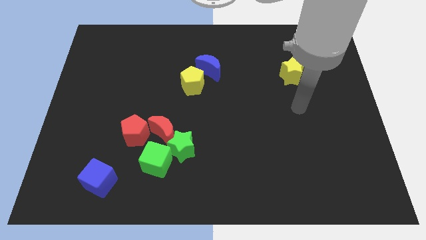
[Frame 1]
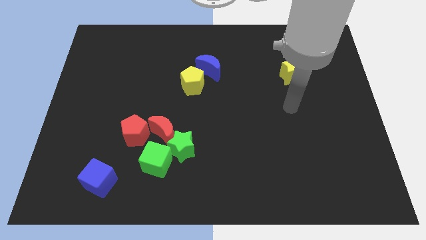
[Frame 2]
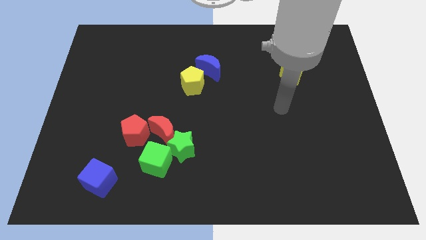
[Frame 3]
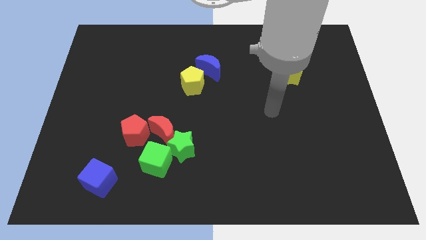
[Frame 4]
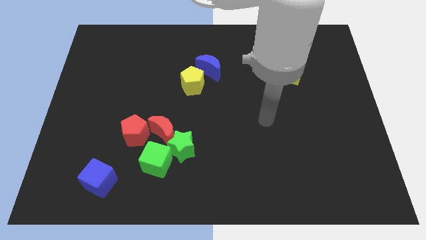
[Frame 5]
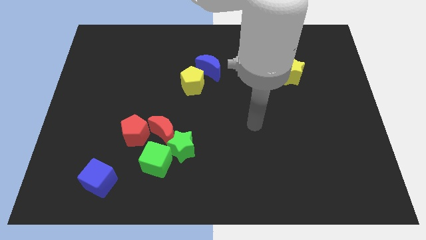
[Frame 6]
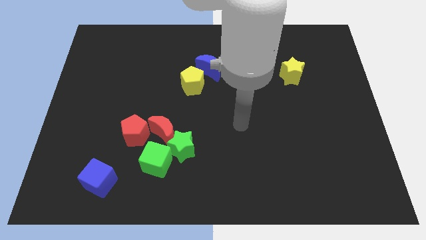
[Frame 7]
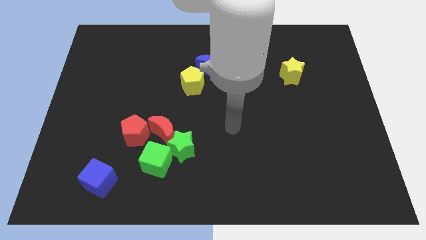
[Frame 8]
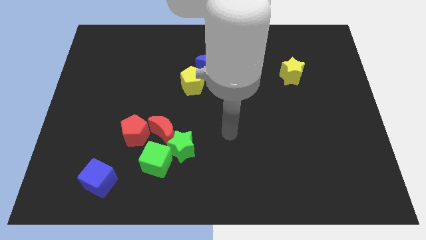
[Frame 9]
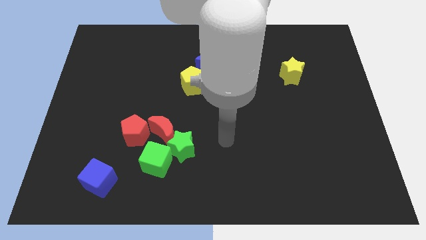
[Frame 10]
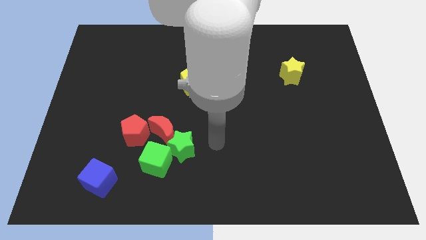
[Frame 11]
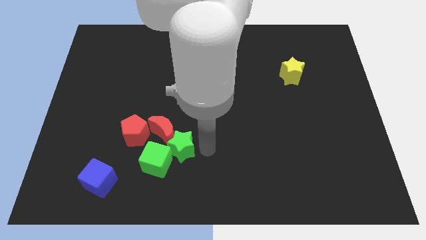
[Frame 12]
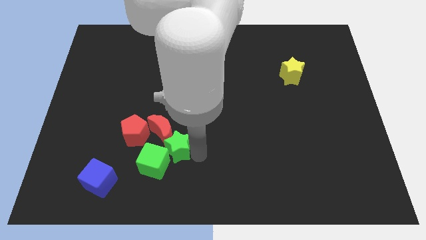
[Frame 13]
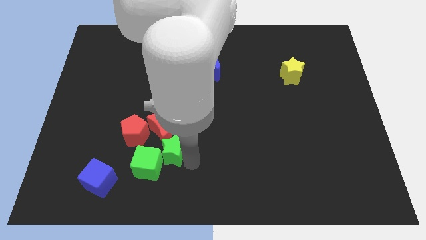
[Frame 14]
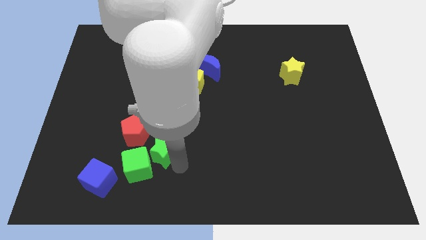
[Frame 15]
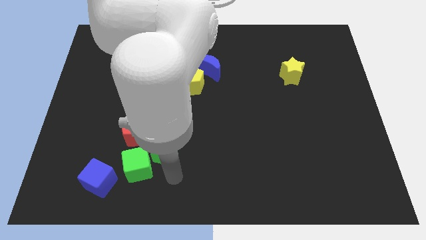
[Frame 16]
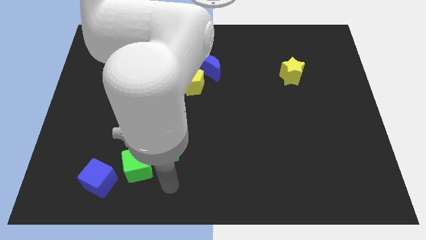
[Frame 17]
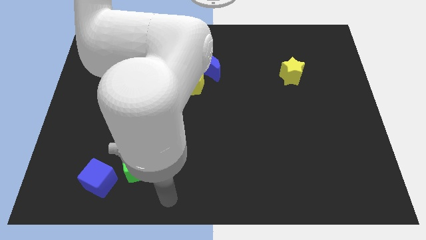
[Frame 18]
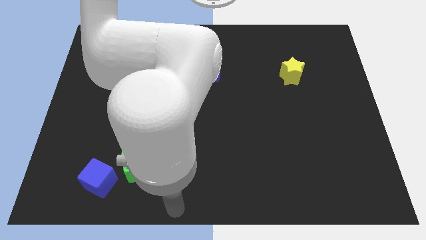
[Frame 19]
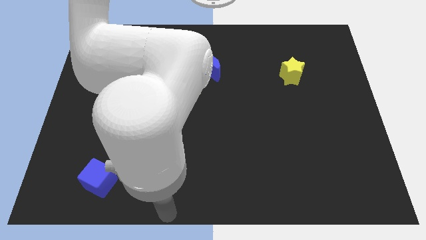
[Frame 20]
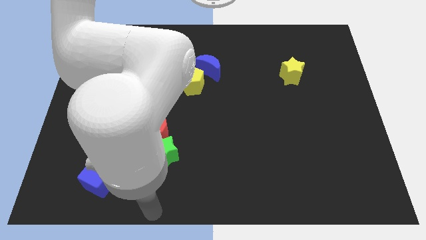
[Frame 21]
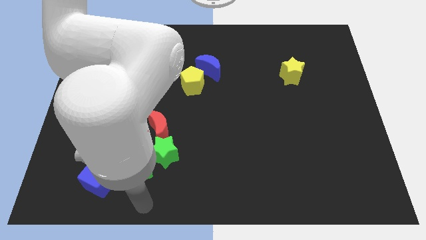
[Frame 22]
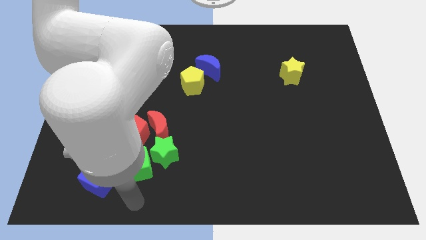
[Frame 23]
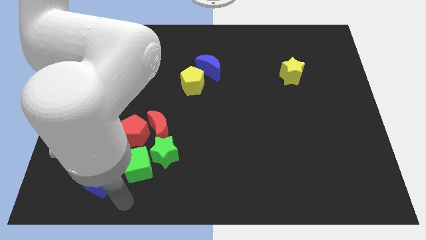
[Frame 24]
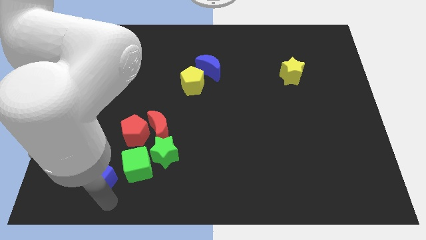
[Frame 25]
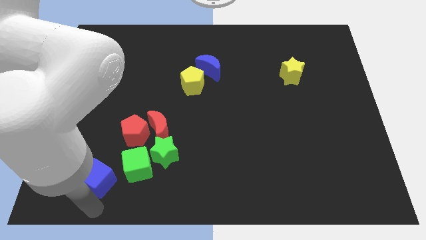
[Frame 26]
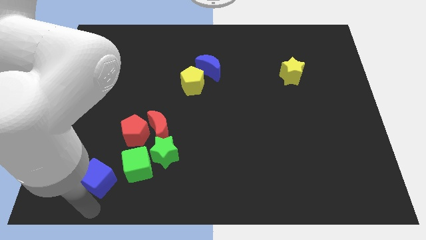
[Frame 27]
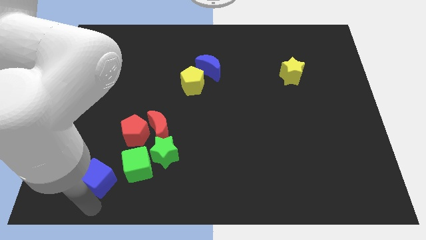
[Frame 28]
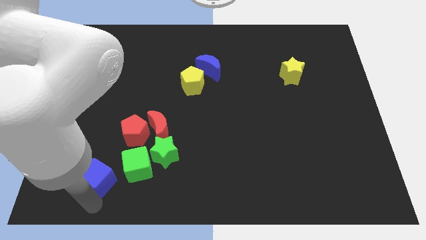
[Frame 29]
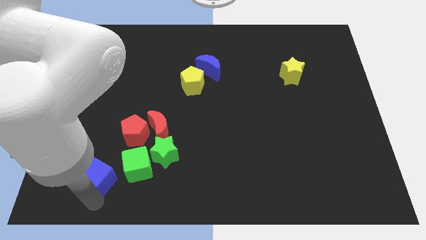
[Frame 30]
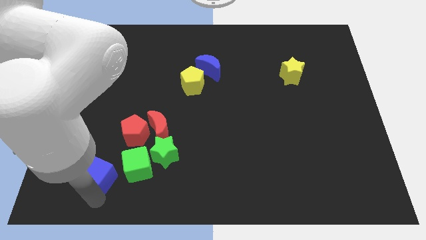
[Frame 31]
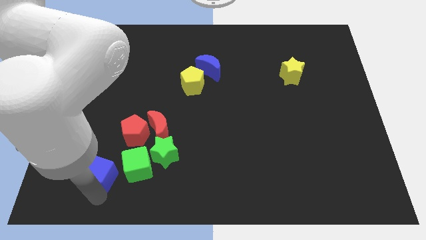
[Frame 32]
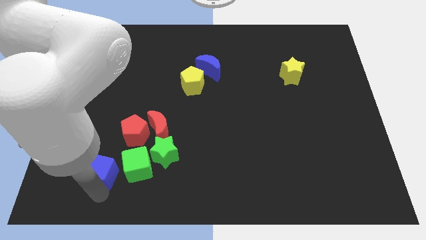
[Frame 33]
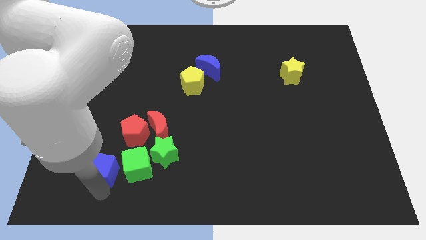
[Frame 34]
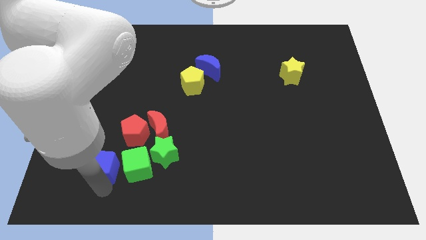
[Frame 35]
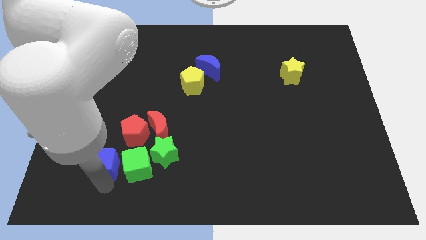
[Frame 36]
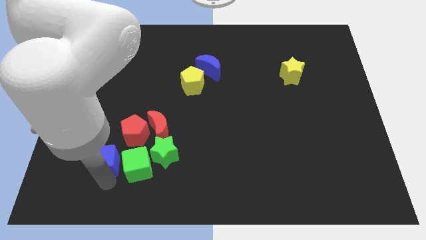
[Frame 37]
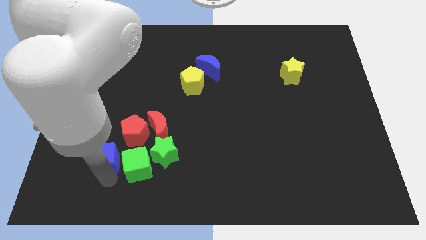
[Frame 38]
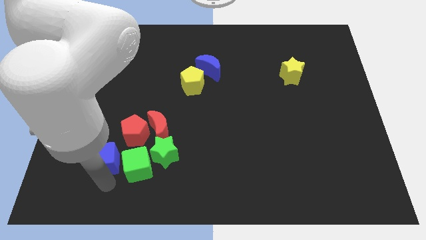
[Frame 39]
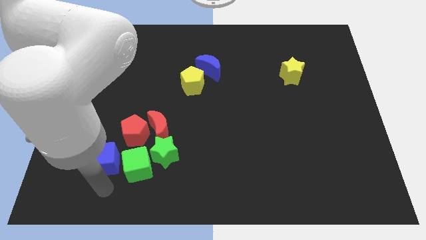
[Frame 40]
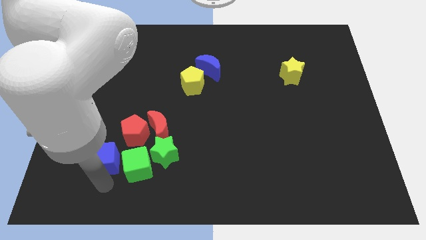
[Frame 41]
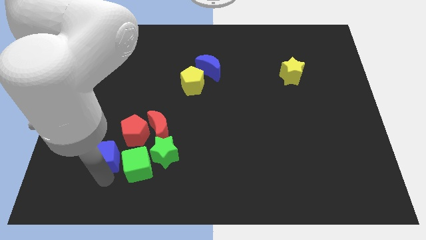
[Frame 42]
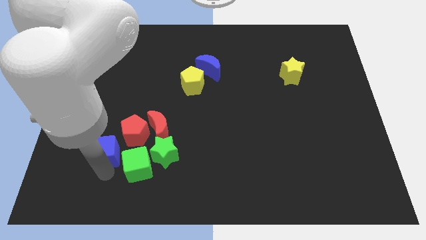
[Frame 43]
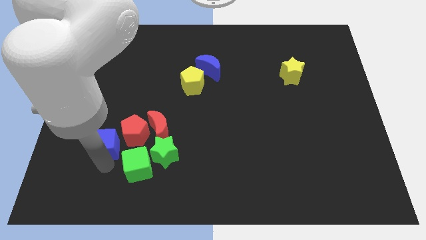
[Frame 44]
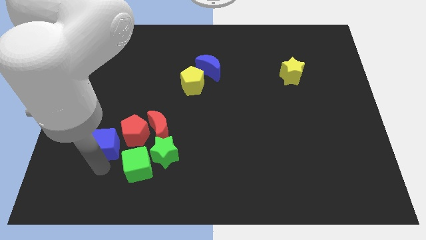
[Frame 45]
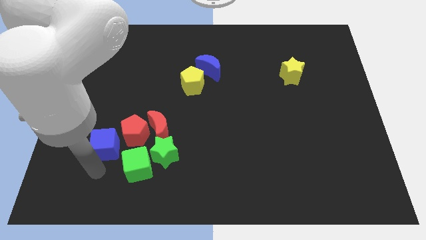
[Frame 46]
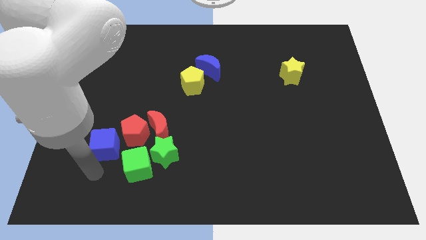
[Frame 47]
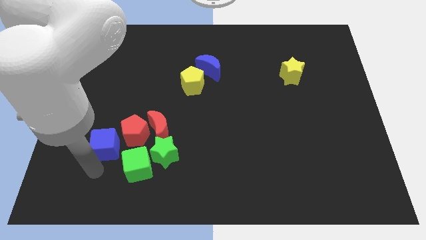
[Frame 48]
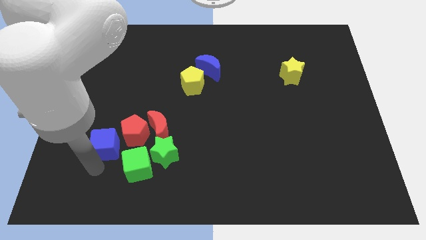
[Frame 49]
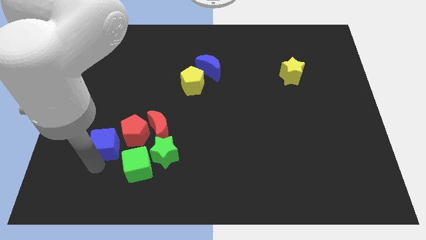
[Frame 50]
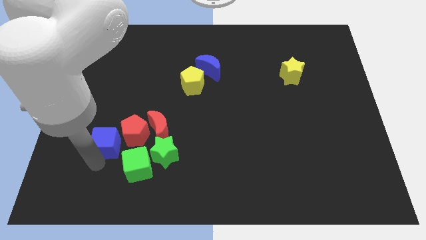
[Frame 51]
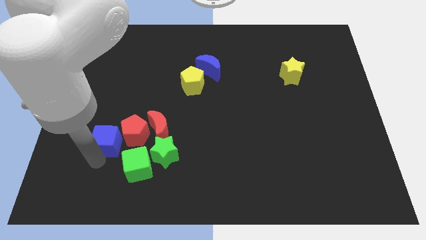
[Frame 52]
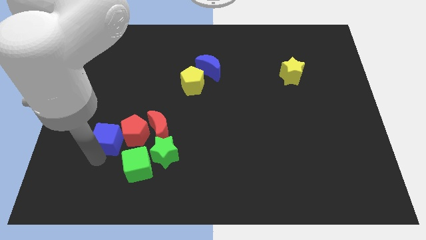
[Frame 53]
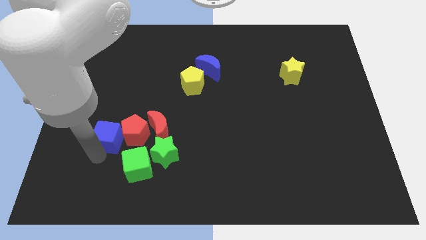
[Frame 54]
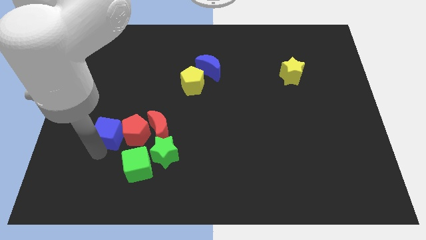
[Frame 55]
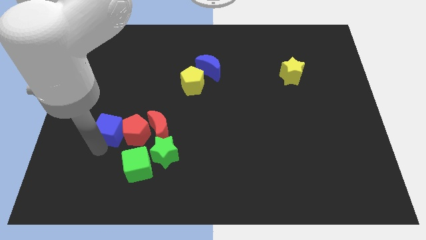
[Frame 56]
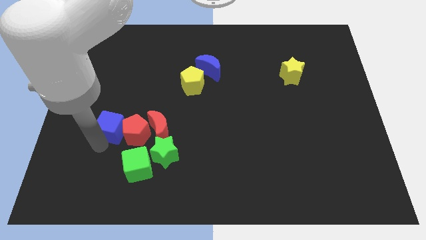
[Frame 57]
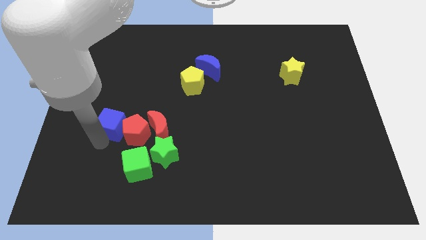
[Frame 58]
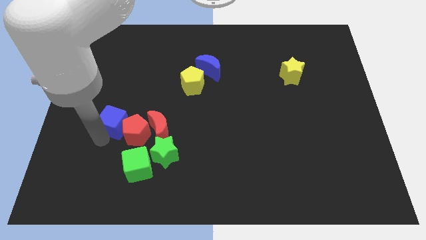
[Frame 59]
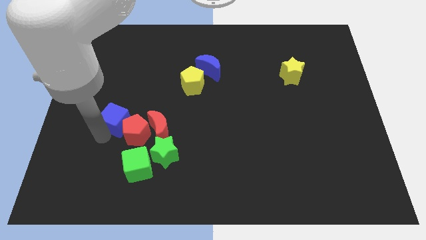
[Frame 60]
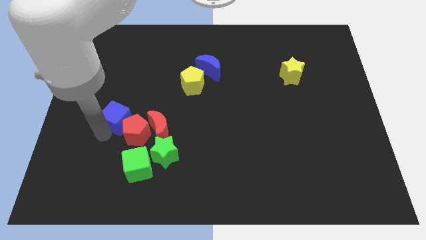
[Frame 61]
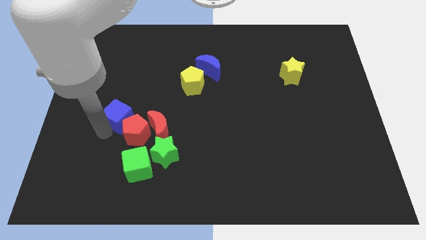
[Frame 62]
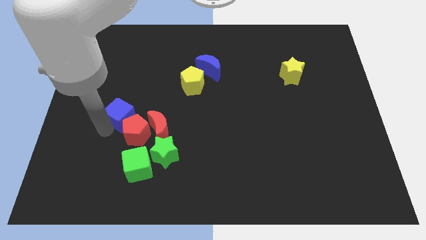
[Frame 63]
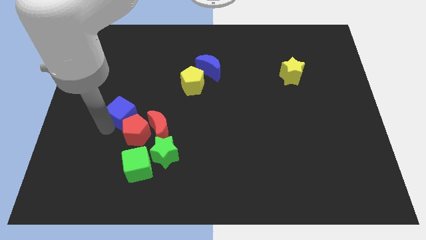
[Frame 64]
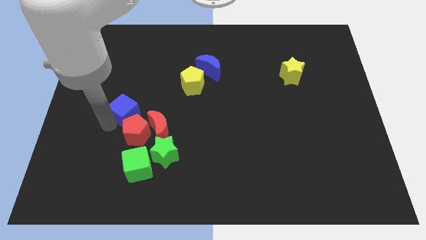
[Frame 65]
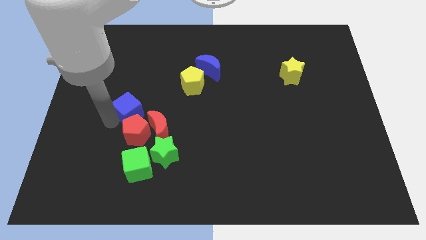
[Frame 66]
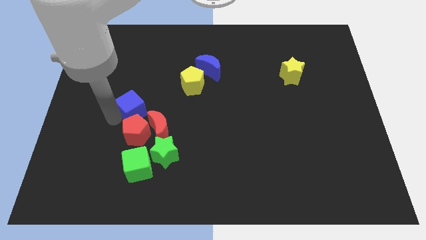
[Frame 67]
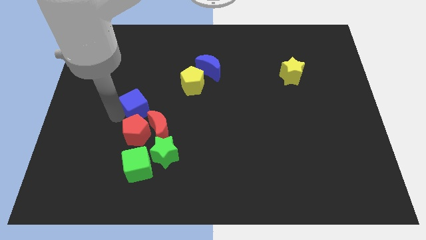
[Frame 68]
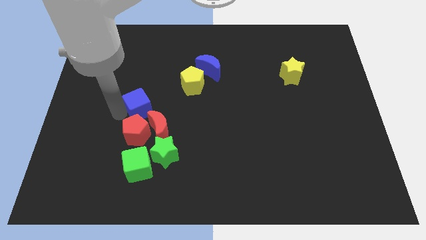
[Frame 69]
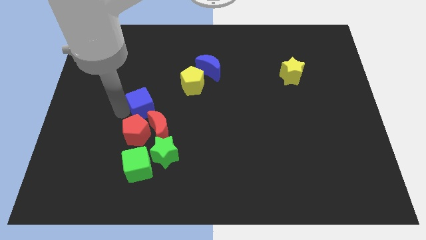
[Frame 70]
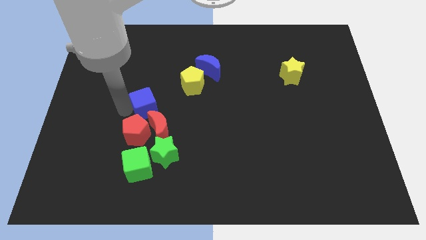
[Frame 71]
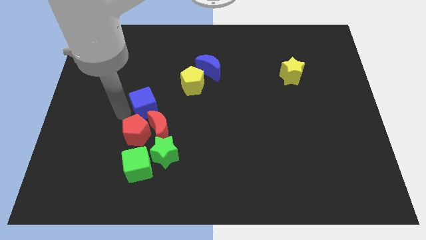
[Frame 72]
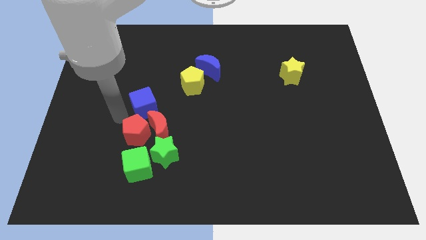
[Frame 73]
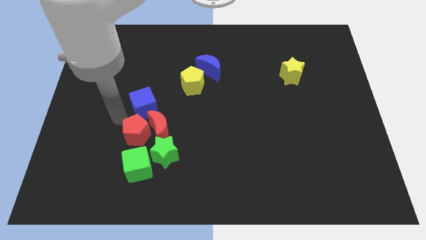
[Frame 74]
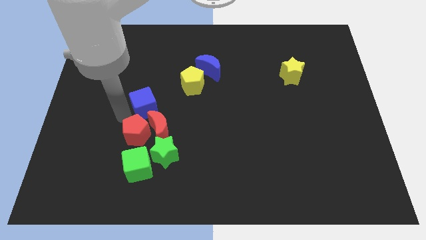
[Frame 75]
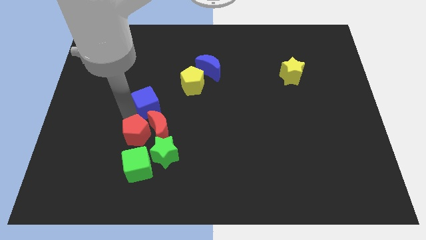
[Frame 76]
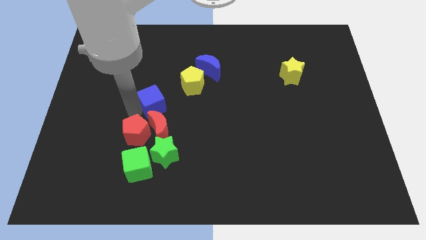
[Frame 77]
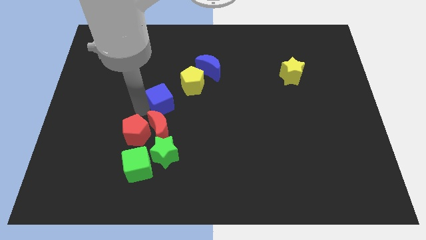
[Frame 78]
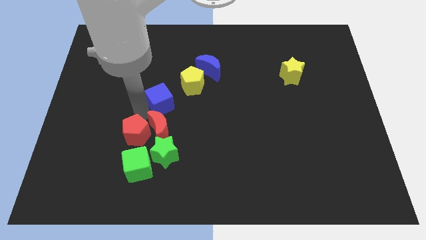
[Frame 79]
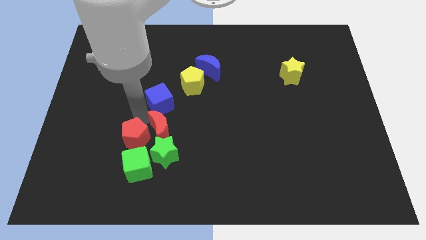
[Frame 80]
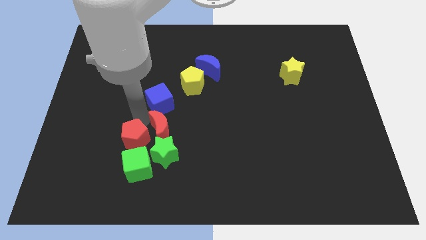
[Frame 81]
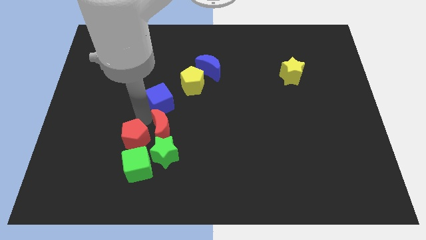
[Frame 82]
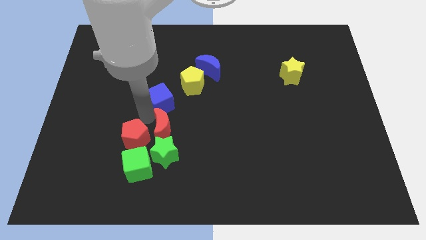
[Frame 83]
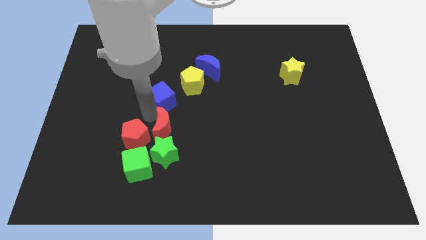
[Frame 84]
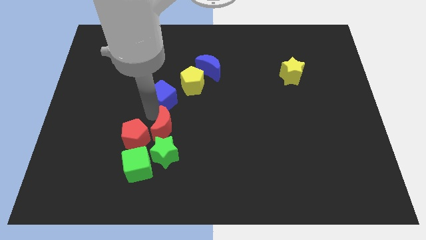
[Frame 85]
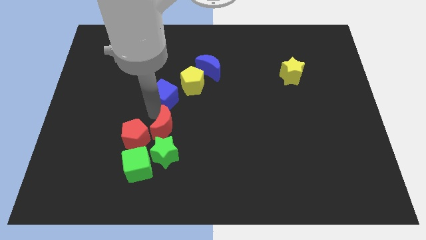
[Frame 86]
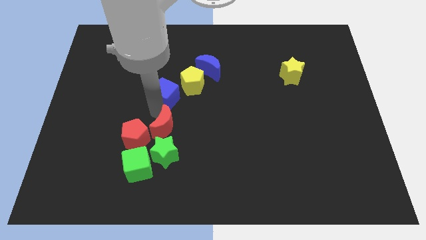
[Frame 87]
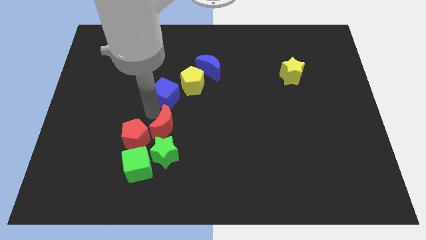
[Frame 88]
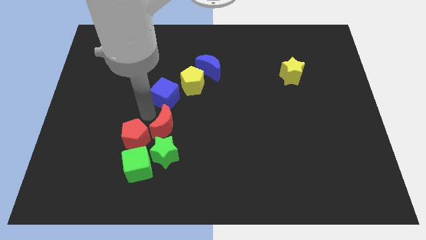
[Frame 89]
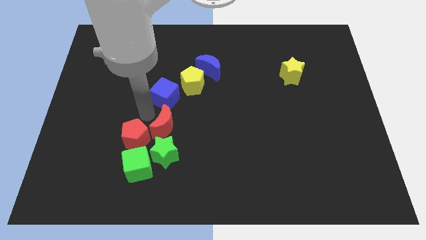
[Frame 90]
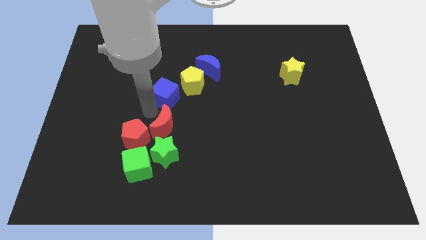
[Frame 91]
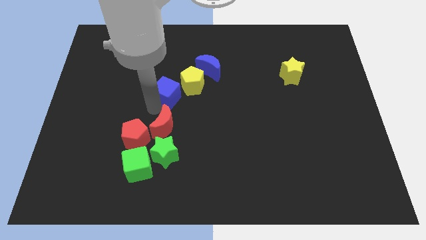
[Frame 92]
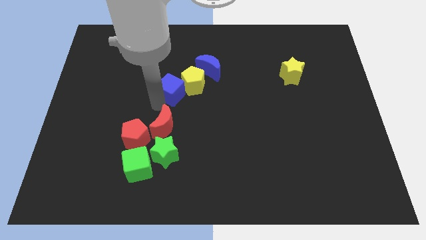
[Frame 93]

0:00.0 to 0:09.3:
push the blue cube next to the yellow pentagon
